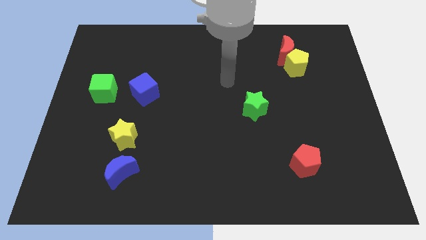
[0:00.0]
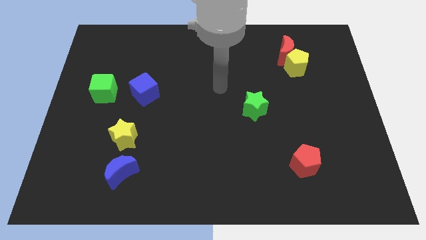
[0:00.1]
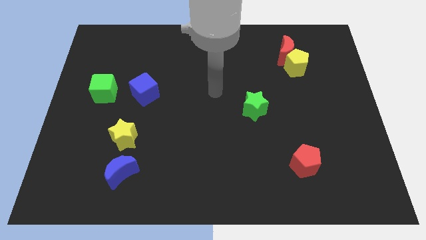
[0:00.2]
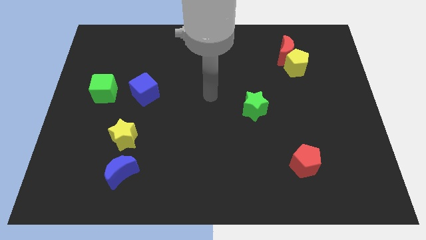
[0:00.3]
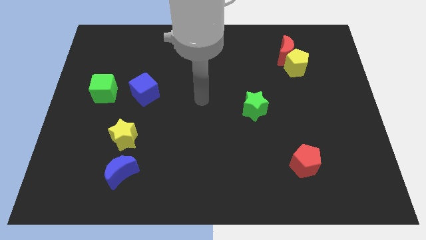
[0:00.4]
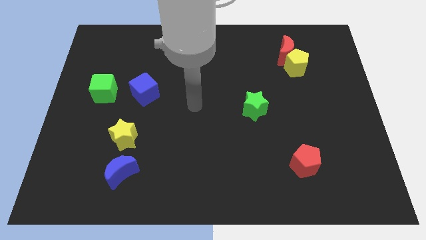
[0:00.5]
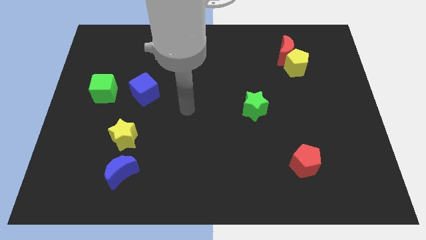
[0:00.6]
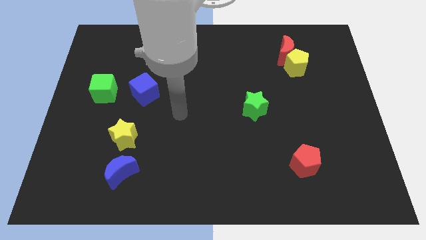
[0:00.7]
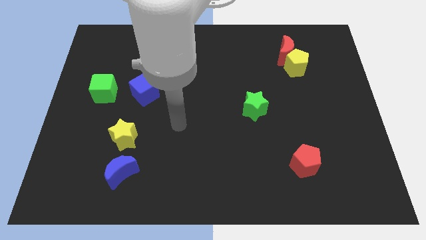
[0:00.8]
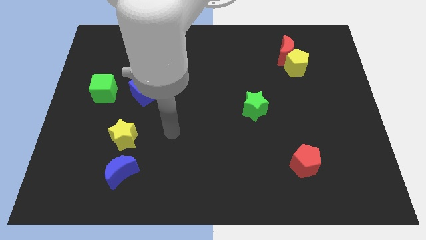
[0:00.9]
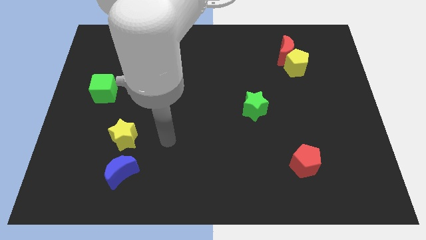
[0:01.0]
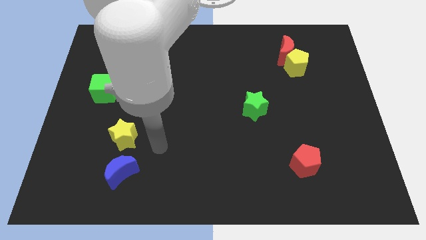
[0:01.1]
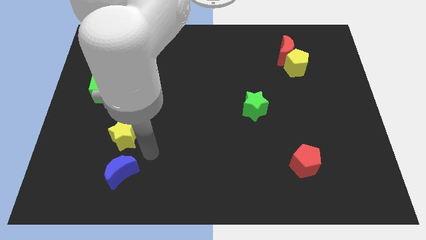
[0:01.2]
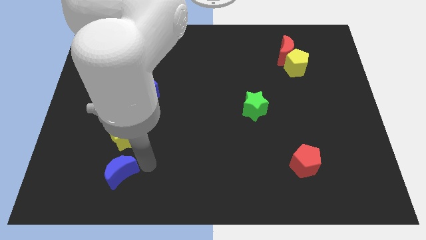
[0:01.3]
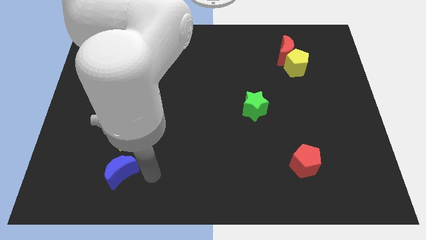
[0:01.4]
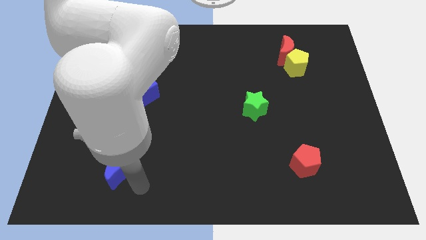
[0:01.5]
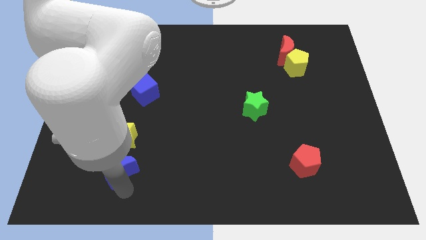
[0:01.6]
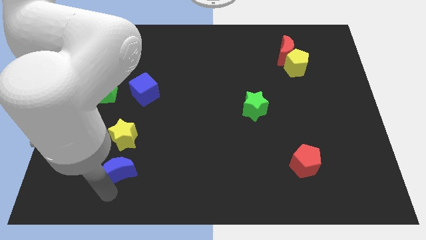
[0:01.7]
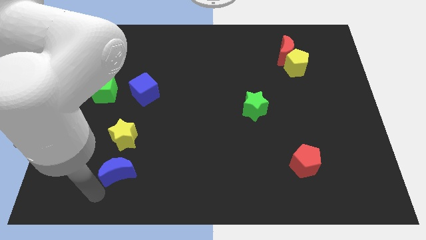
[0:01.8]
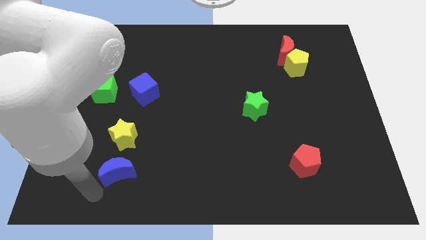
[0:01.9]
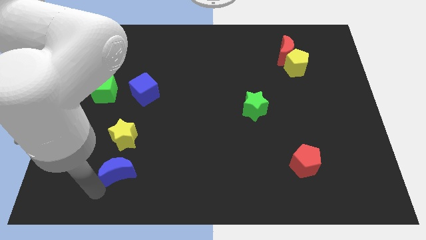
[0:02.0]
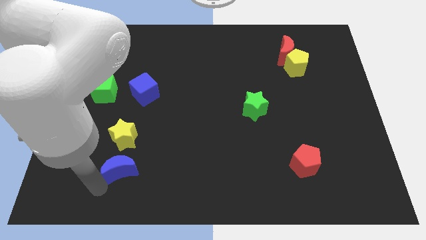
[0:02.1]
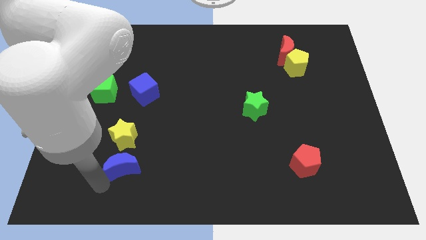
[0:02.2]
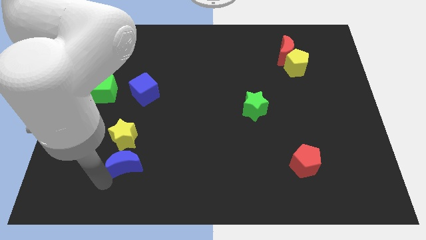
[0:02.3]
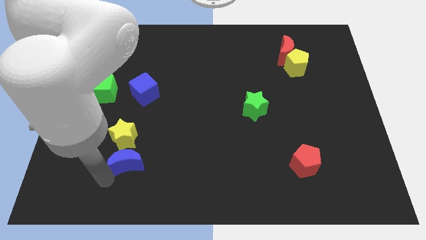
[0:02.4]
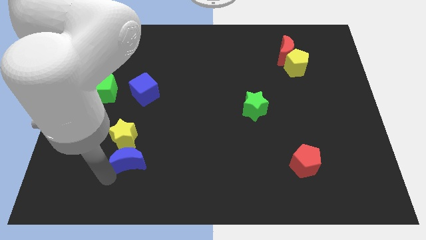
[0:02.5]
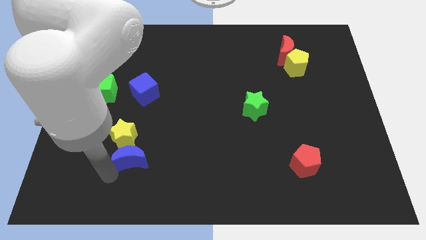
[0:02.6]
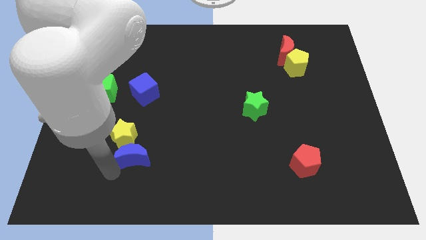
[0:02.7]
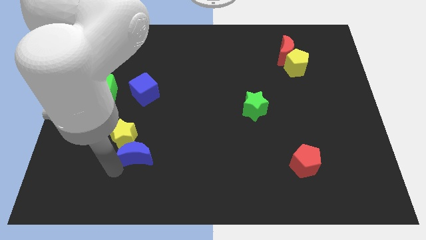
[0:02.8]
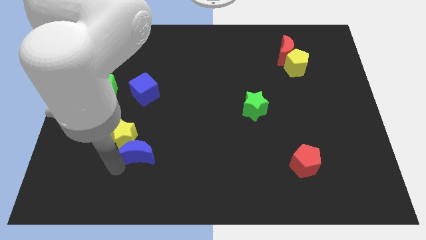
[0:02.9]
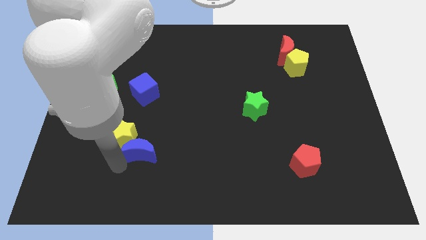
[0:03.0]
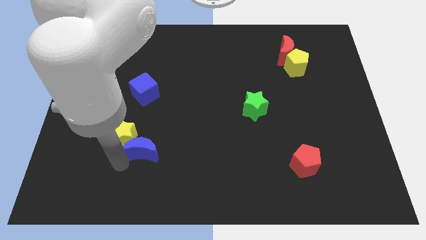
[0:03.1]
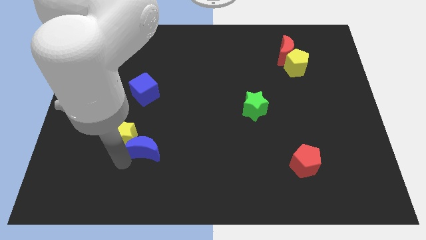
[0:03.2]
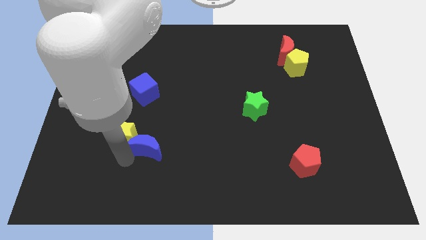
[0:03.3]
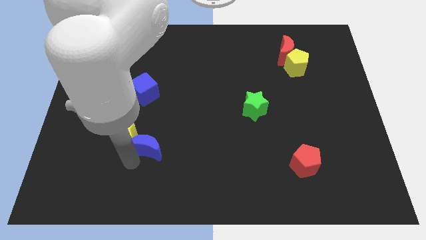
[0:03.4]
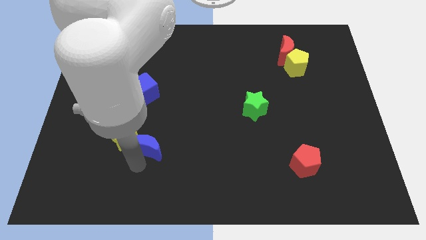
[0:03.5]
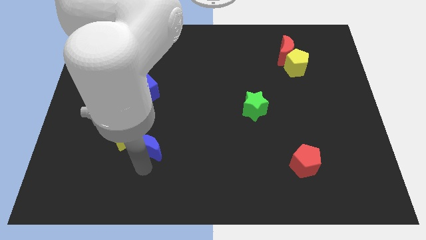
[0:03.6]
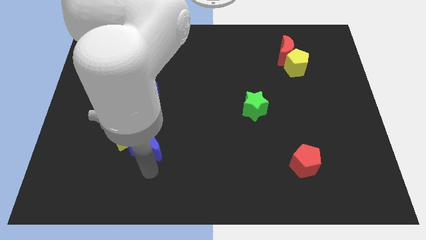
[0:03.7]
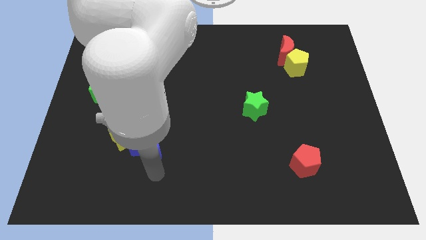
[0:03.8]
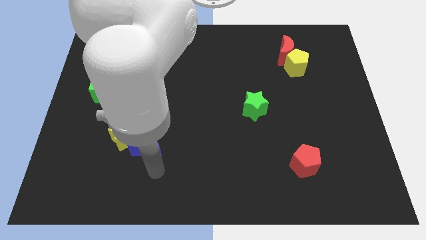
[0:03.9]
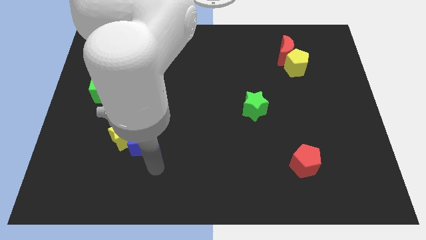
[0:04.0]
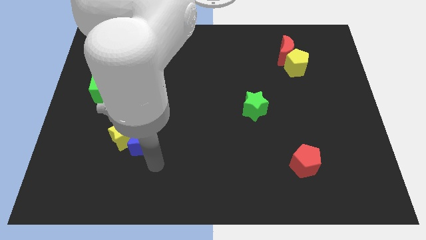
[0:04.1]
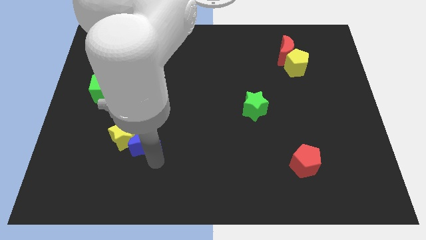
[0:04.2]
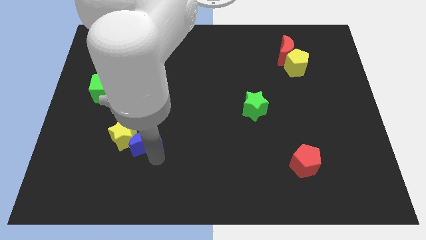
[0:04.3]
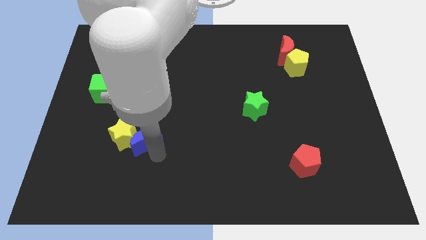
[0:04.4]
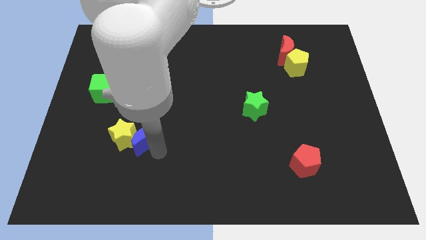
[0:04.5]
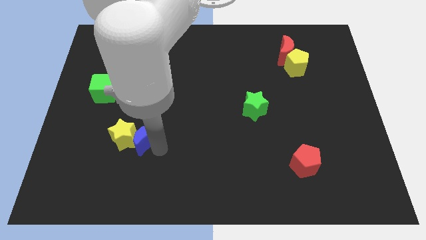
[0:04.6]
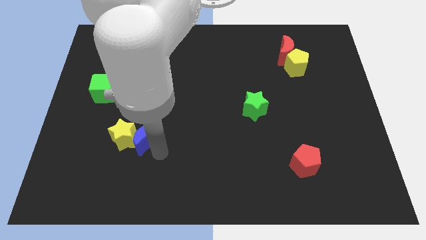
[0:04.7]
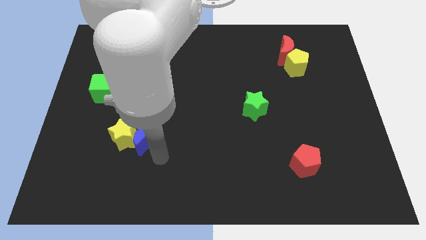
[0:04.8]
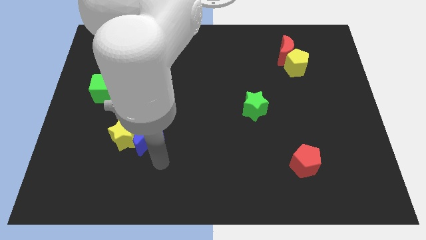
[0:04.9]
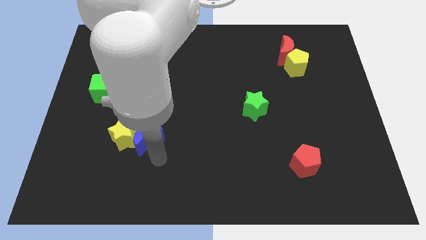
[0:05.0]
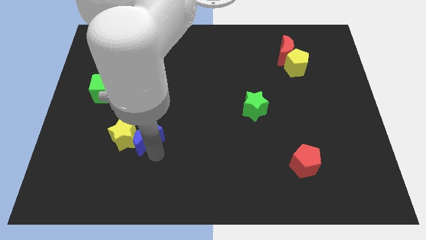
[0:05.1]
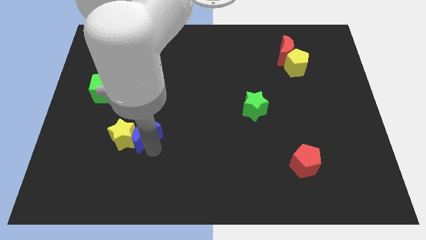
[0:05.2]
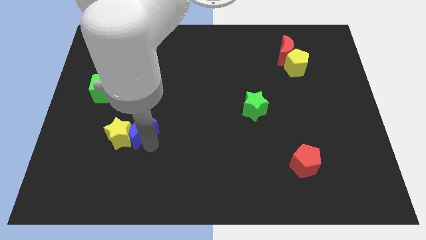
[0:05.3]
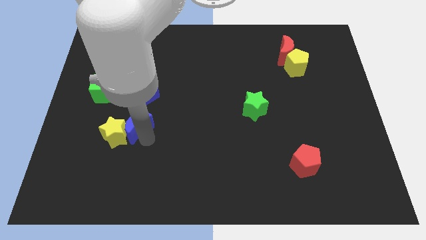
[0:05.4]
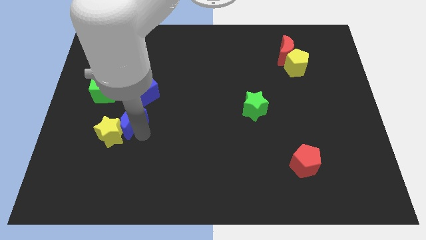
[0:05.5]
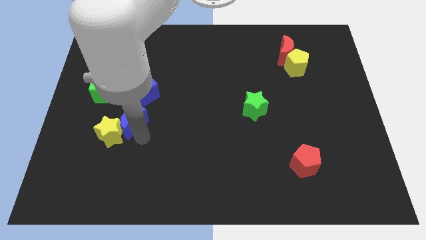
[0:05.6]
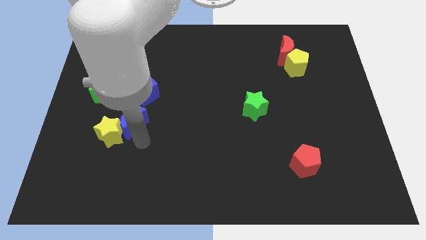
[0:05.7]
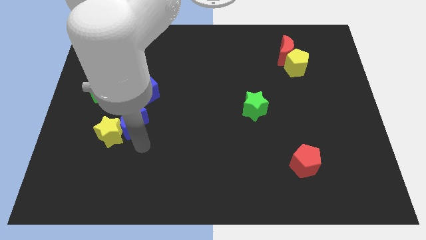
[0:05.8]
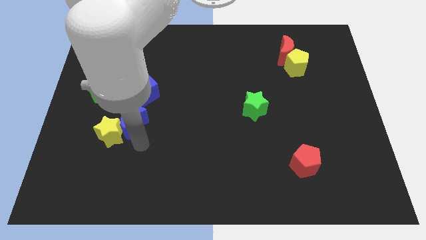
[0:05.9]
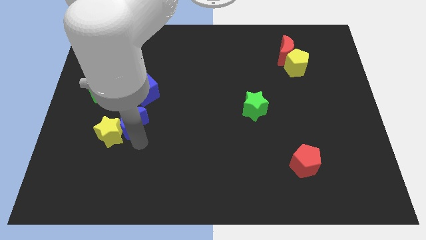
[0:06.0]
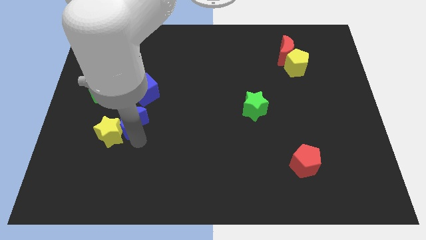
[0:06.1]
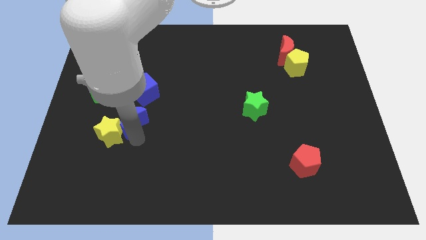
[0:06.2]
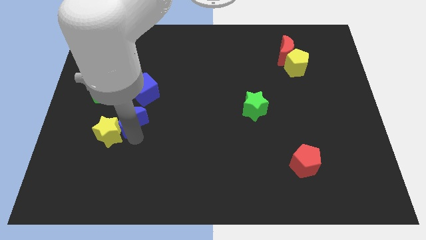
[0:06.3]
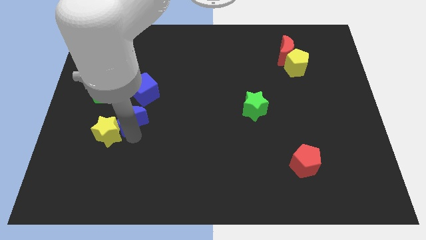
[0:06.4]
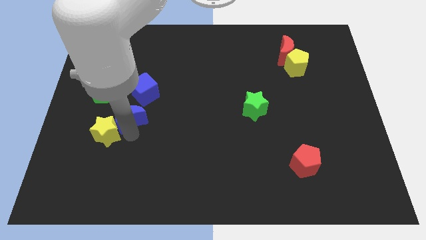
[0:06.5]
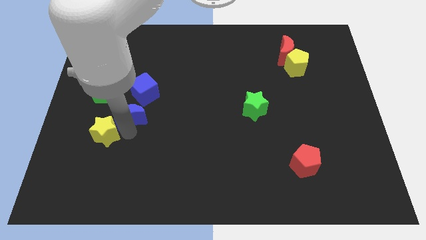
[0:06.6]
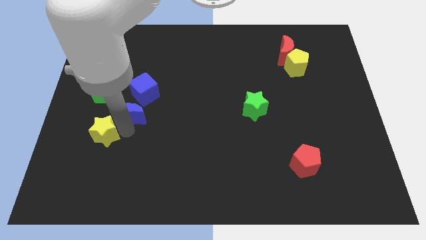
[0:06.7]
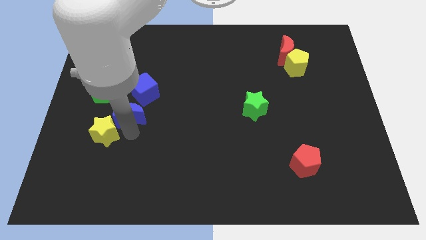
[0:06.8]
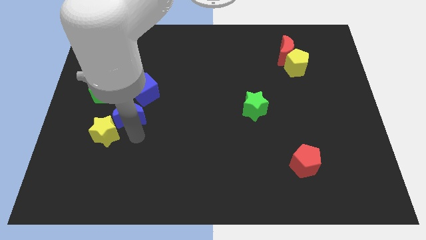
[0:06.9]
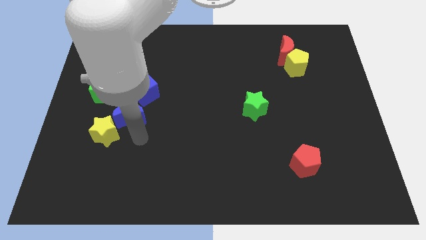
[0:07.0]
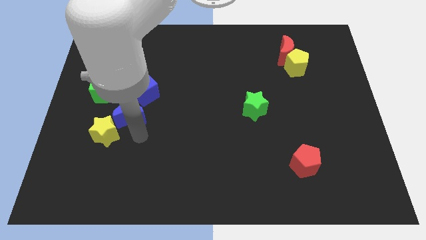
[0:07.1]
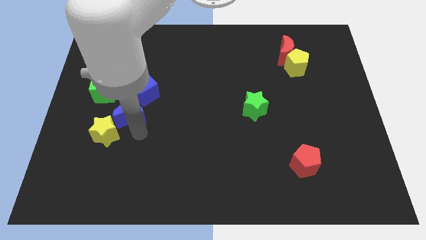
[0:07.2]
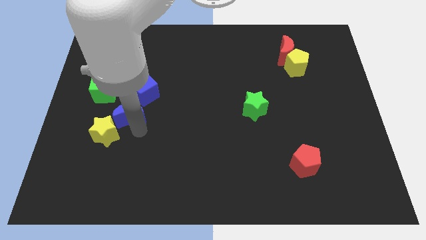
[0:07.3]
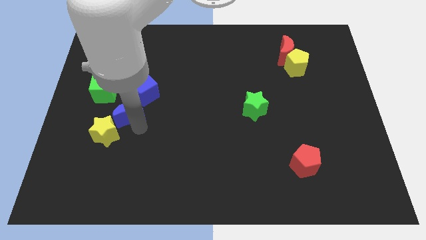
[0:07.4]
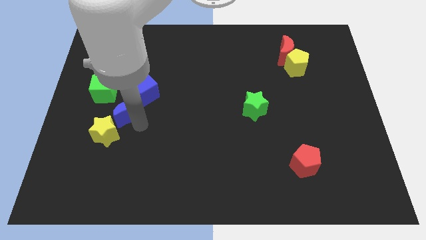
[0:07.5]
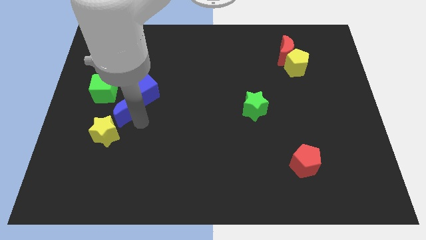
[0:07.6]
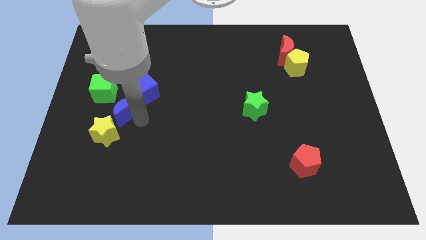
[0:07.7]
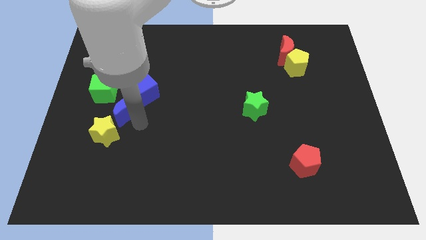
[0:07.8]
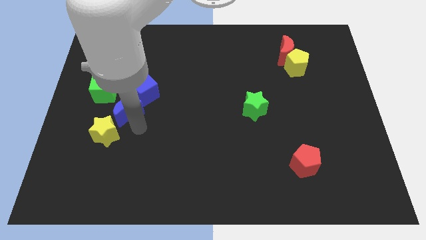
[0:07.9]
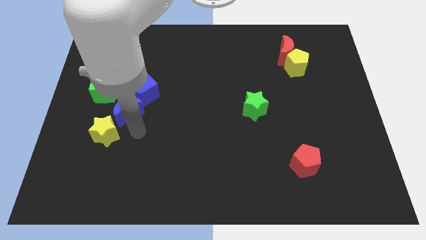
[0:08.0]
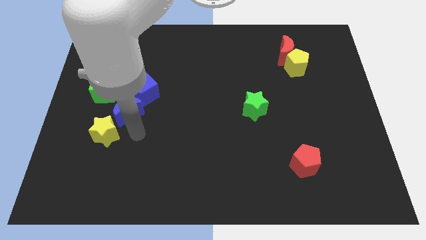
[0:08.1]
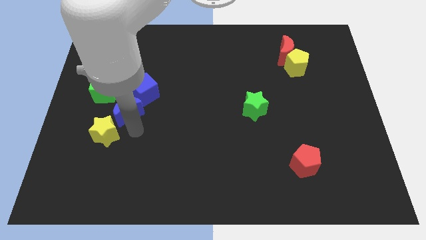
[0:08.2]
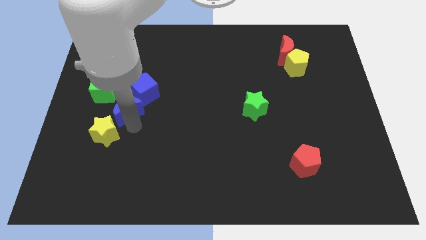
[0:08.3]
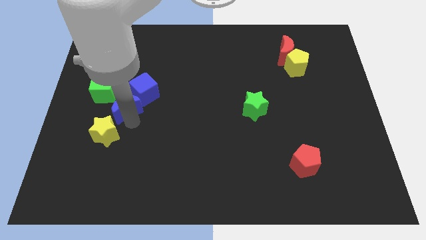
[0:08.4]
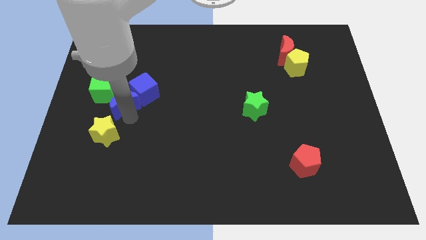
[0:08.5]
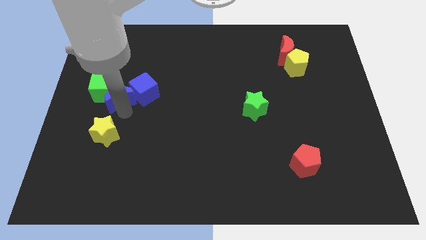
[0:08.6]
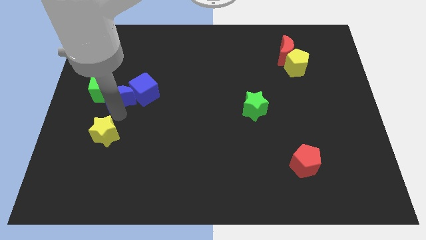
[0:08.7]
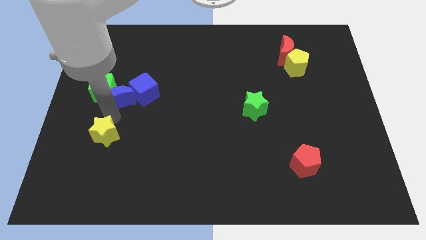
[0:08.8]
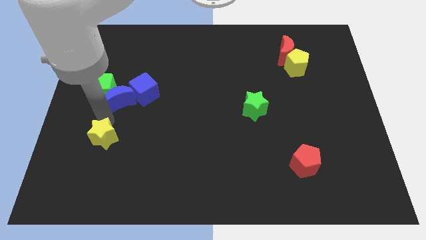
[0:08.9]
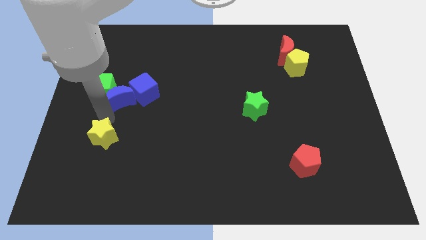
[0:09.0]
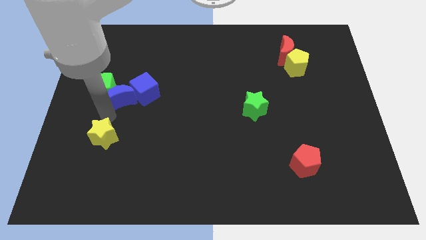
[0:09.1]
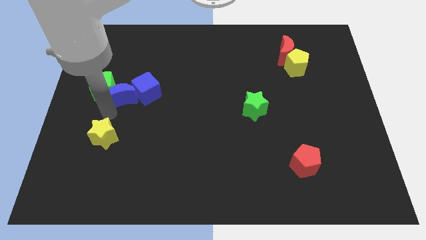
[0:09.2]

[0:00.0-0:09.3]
slide the blue moon upwards
